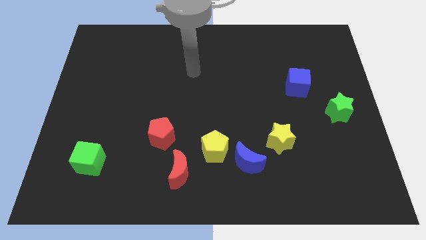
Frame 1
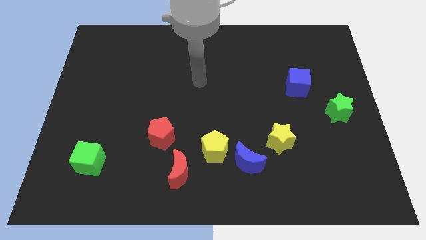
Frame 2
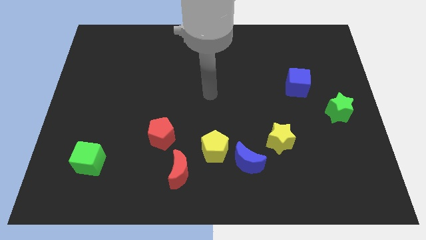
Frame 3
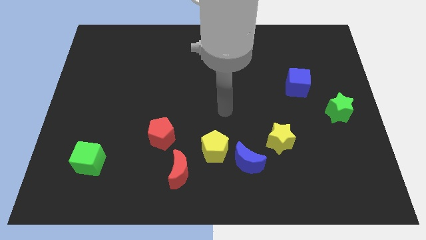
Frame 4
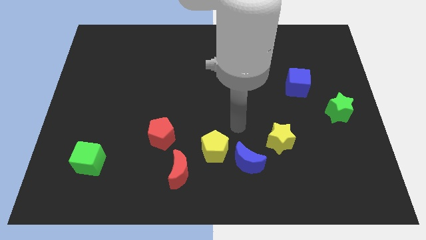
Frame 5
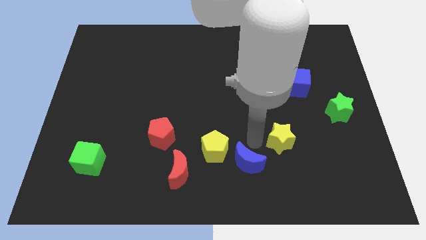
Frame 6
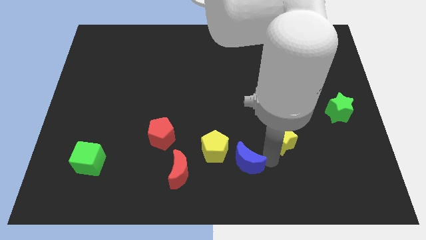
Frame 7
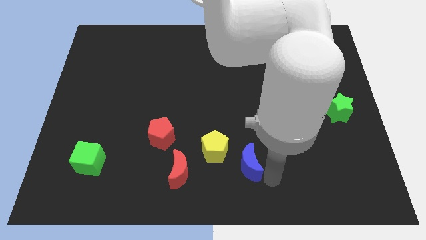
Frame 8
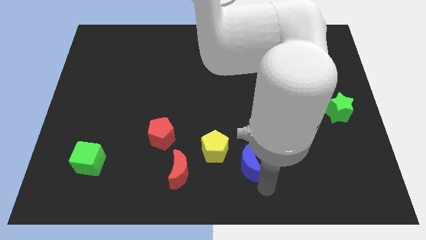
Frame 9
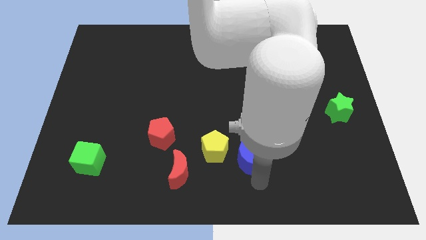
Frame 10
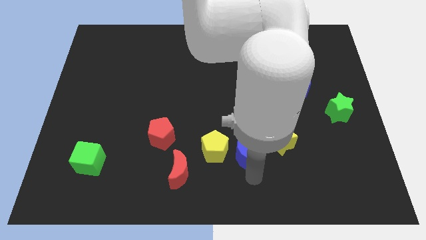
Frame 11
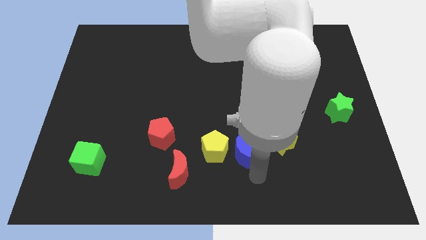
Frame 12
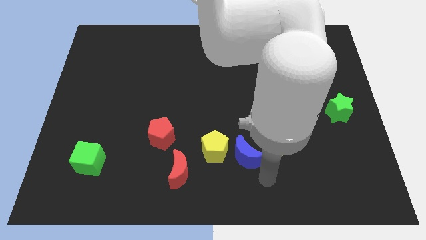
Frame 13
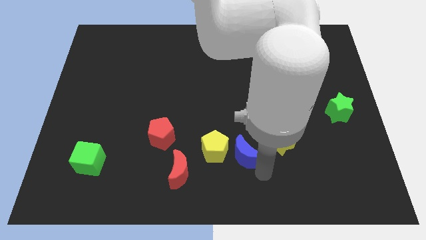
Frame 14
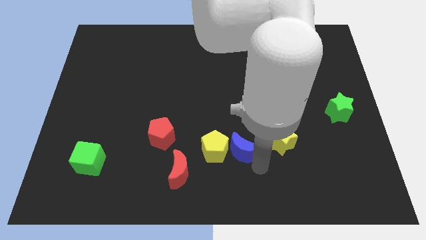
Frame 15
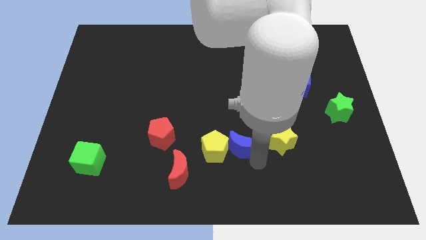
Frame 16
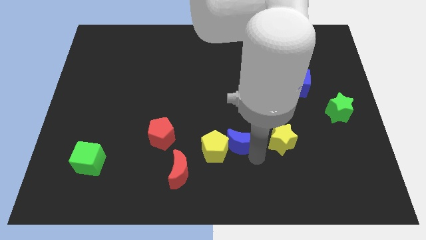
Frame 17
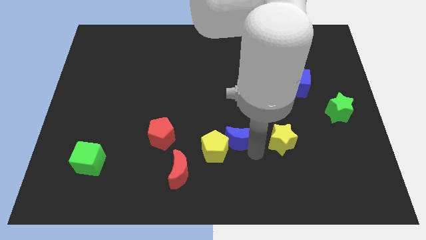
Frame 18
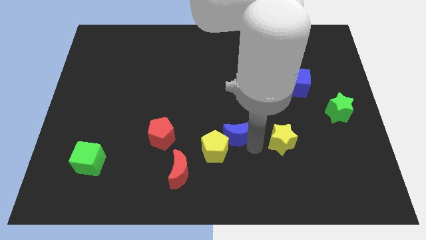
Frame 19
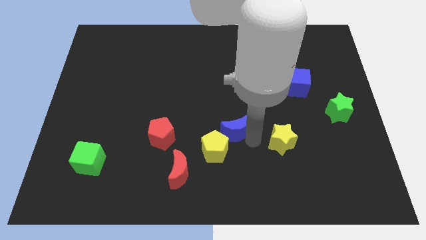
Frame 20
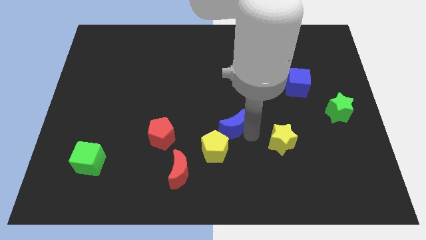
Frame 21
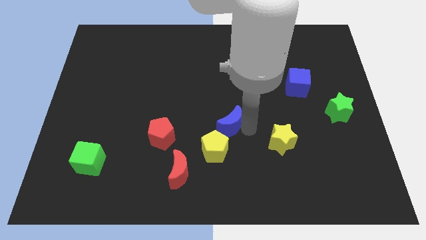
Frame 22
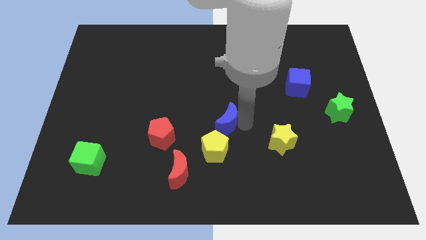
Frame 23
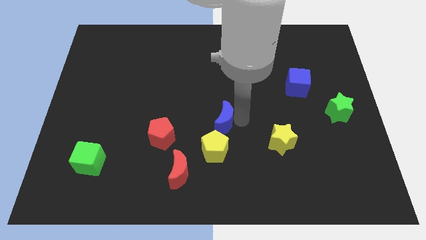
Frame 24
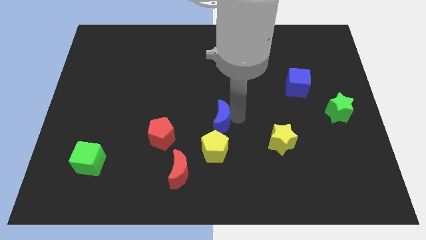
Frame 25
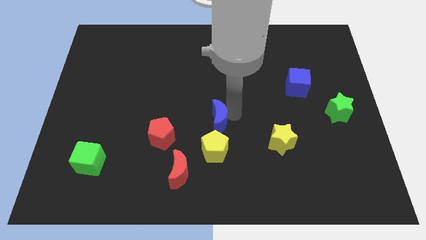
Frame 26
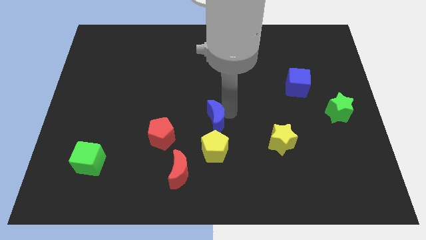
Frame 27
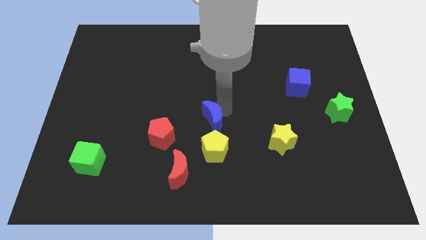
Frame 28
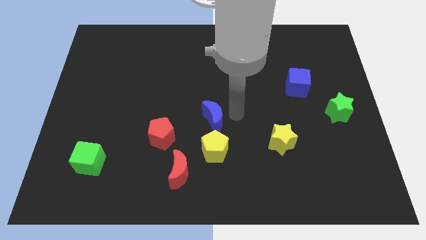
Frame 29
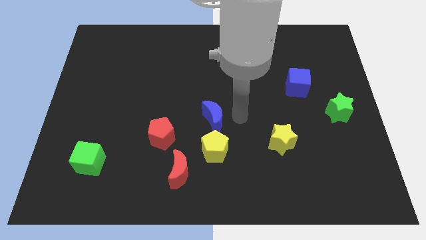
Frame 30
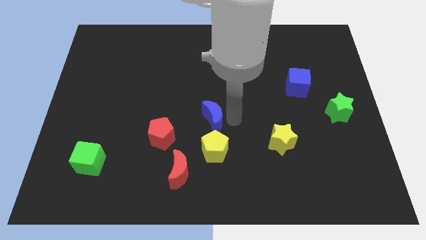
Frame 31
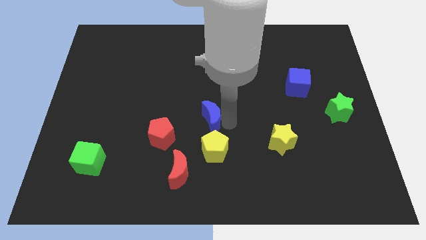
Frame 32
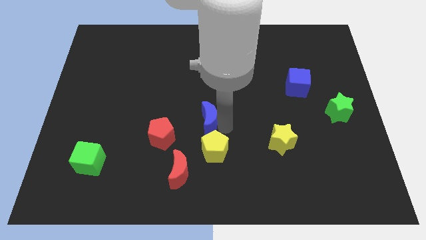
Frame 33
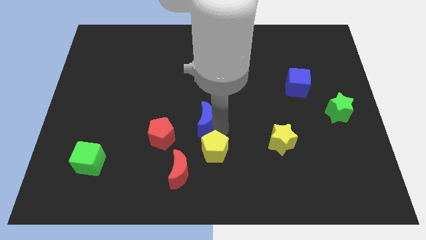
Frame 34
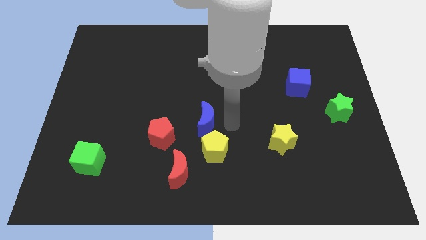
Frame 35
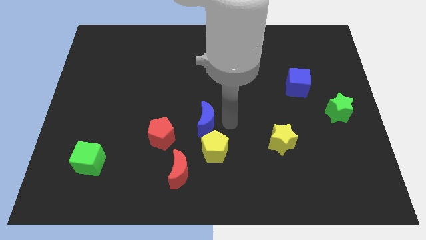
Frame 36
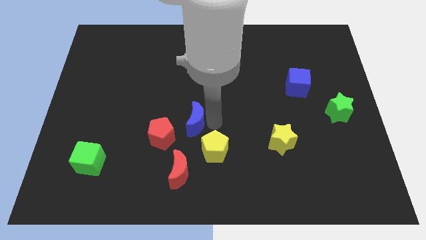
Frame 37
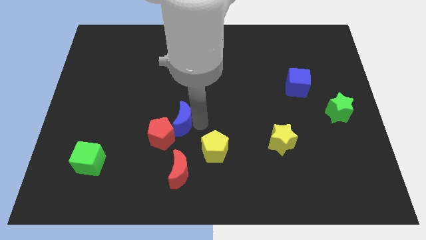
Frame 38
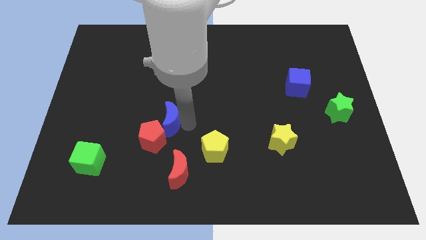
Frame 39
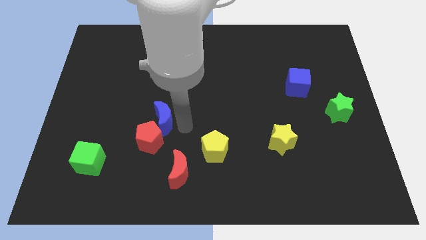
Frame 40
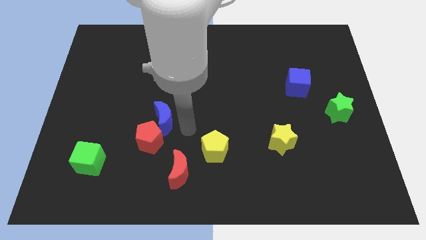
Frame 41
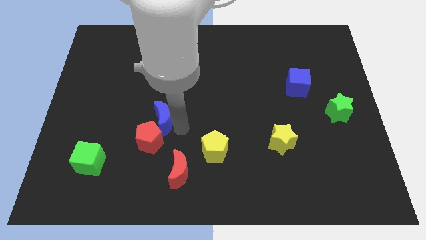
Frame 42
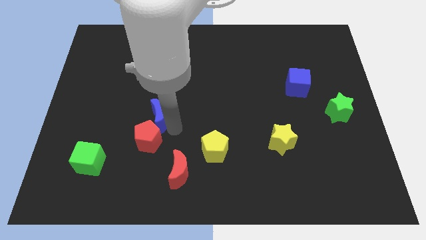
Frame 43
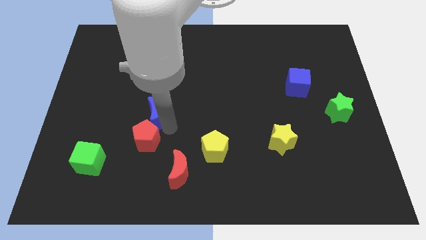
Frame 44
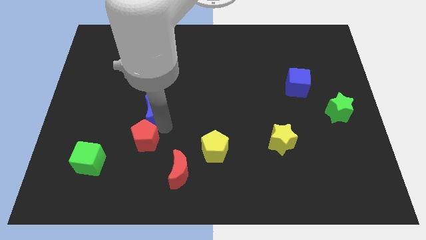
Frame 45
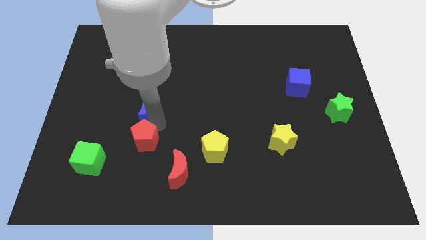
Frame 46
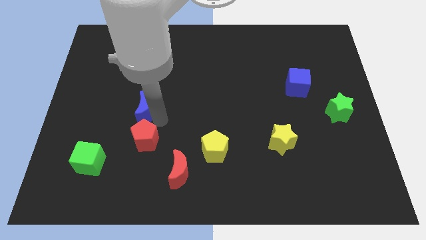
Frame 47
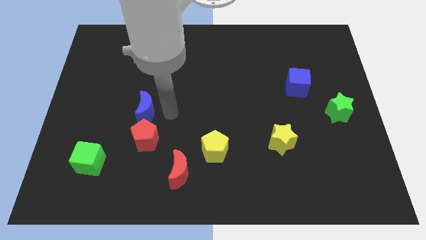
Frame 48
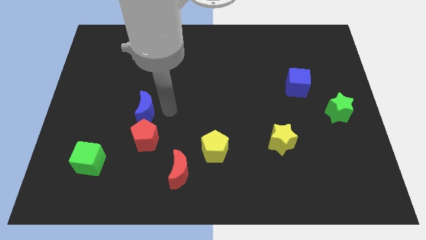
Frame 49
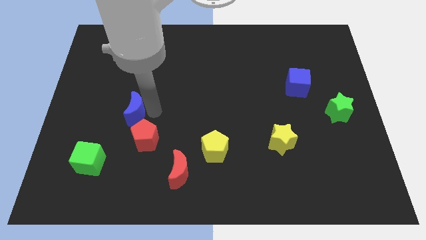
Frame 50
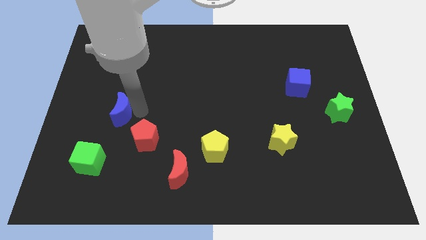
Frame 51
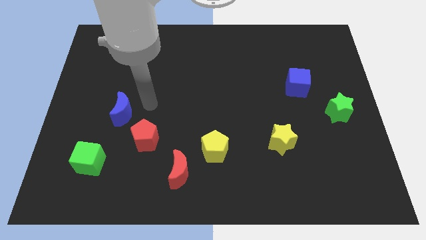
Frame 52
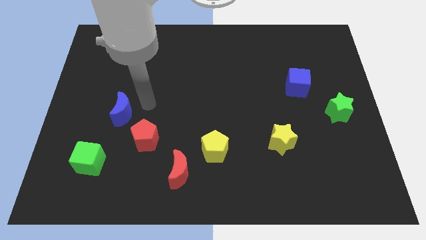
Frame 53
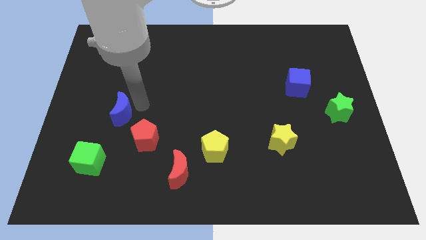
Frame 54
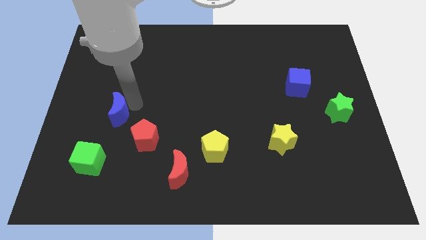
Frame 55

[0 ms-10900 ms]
put the blue moon to the top side of the green cube

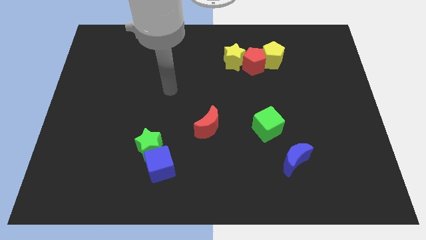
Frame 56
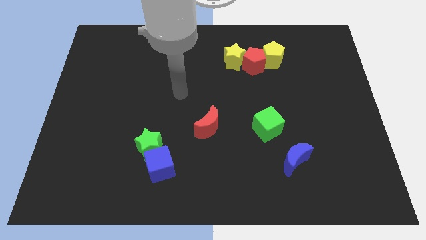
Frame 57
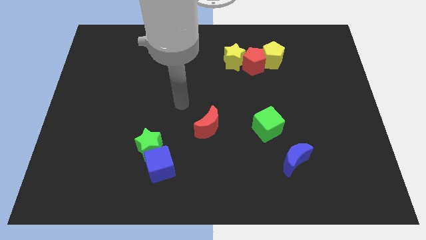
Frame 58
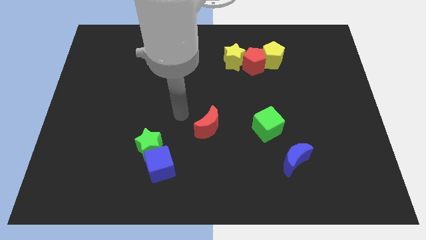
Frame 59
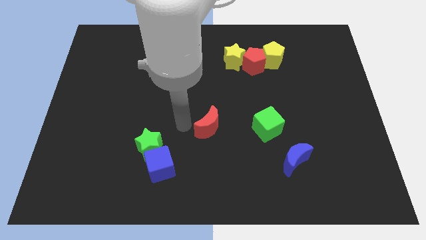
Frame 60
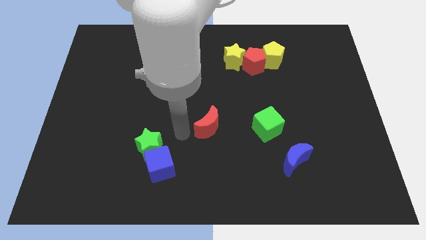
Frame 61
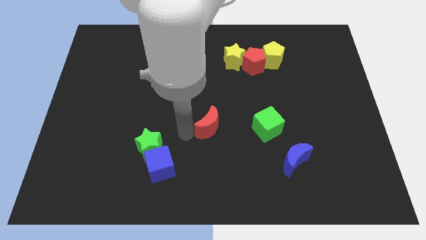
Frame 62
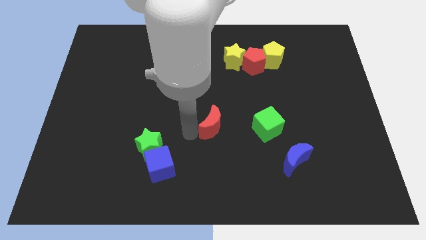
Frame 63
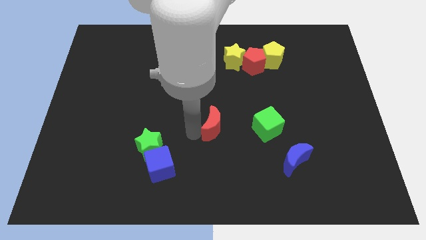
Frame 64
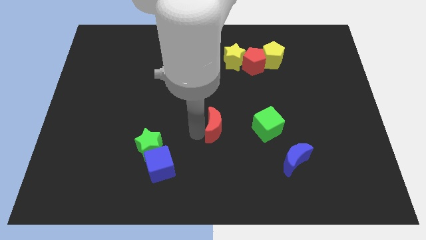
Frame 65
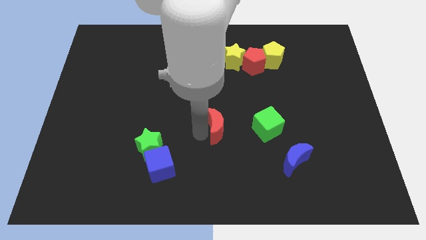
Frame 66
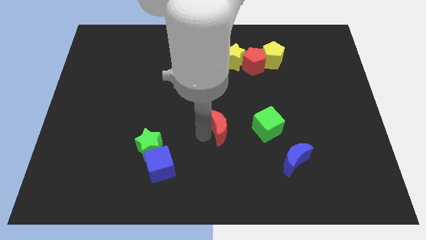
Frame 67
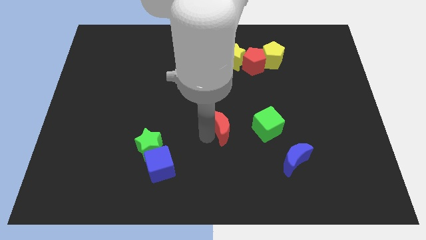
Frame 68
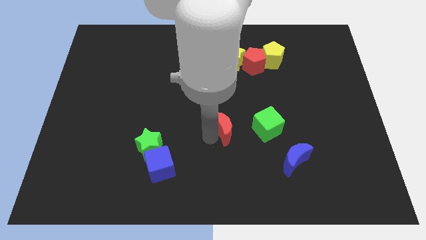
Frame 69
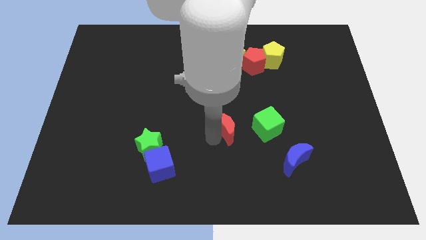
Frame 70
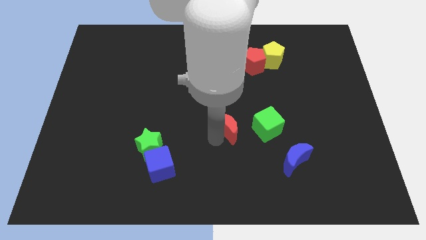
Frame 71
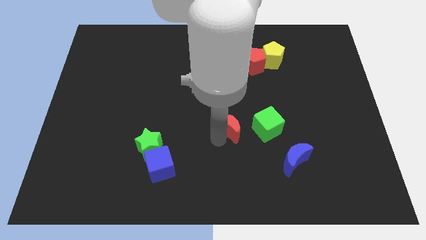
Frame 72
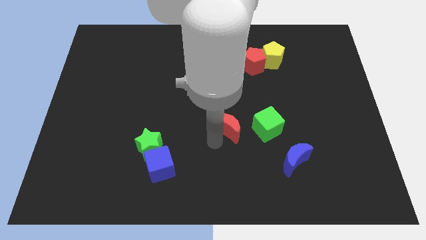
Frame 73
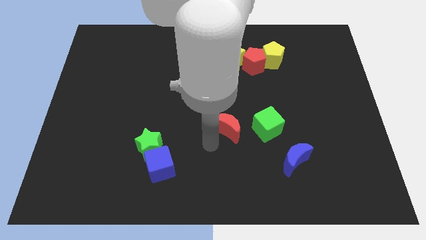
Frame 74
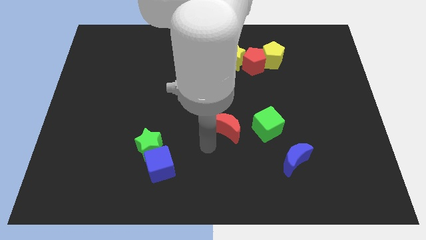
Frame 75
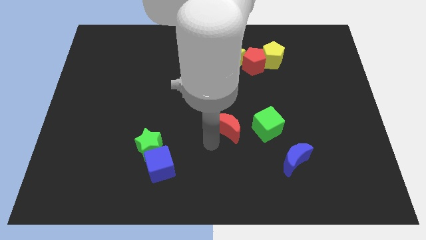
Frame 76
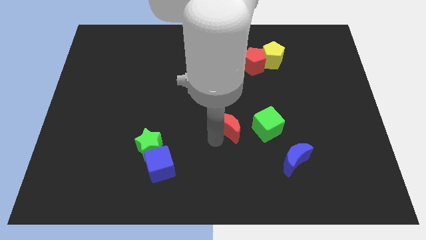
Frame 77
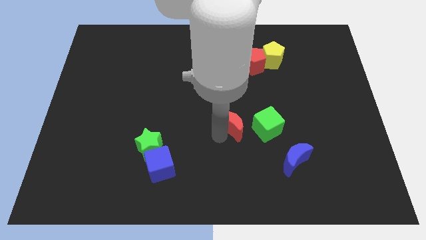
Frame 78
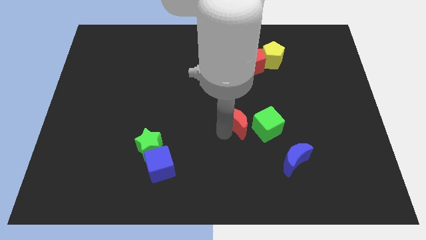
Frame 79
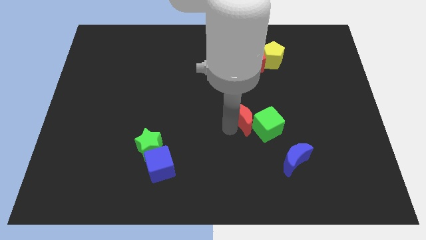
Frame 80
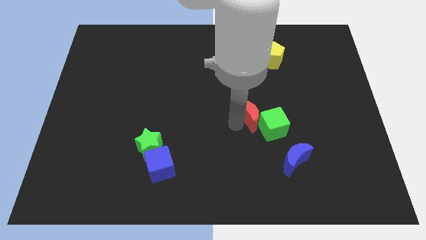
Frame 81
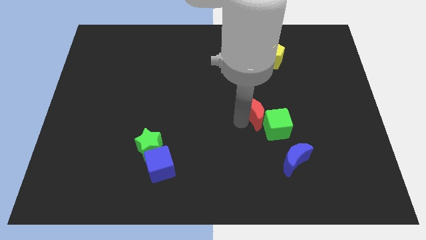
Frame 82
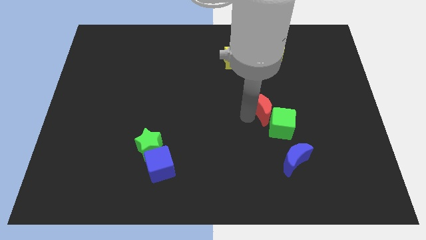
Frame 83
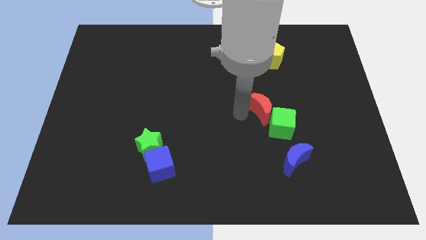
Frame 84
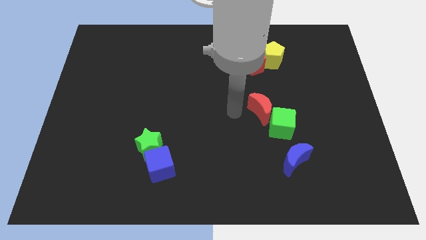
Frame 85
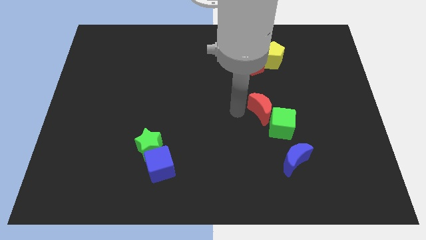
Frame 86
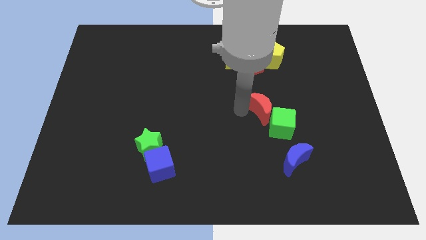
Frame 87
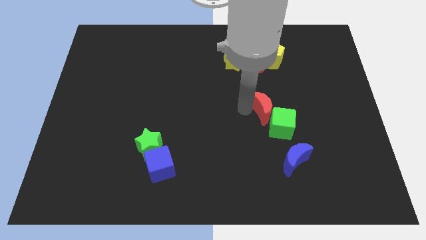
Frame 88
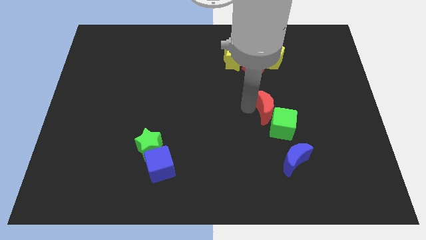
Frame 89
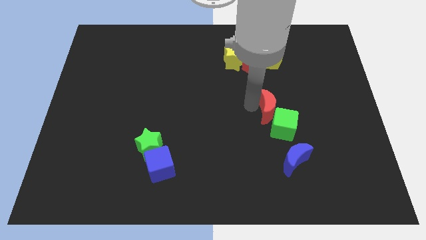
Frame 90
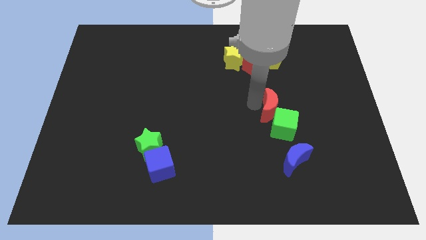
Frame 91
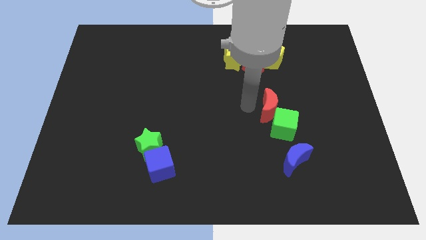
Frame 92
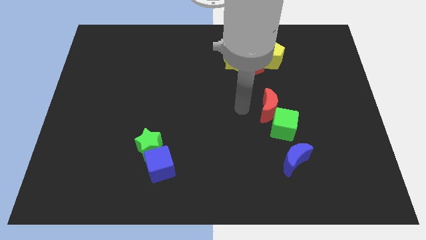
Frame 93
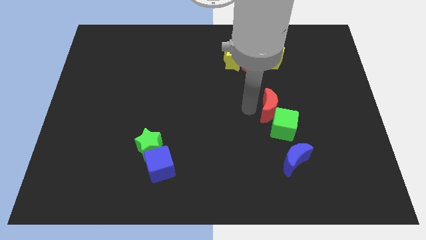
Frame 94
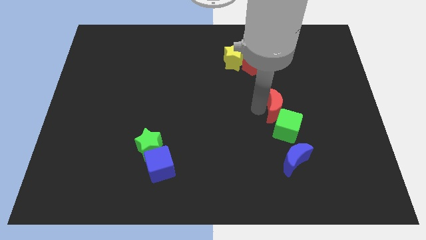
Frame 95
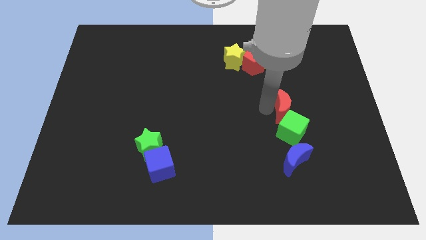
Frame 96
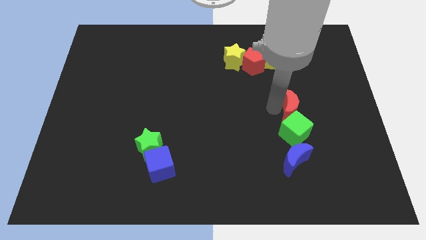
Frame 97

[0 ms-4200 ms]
put the red moon to the top right side of the green cube
